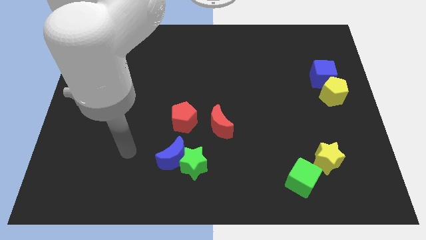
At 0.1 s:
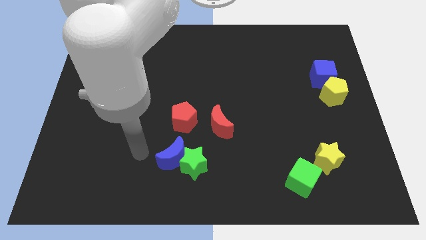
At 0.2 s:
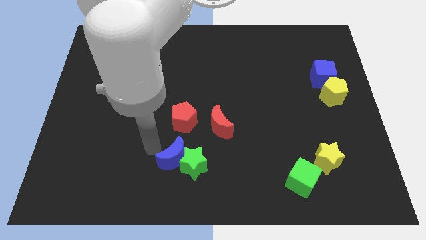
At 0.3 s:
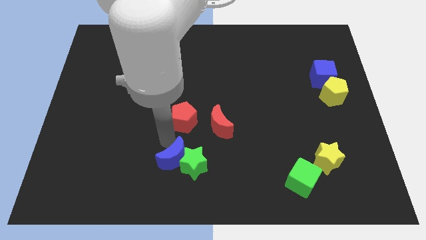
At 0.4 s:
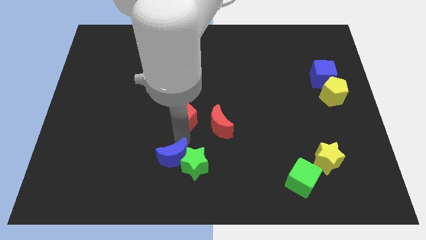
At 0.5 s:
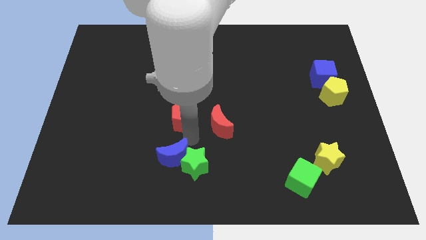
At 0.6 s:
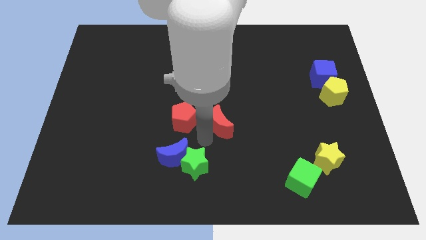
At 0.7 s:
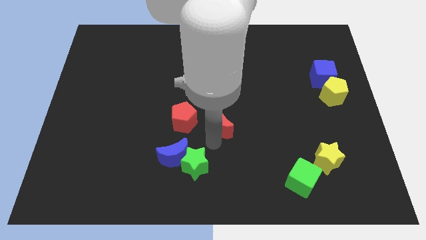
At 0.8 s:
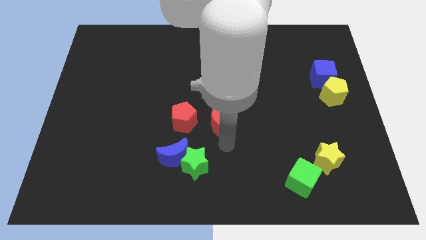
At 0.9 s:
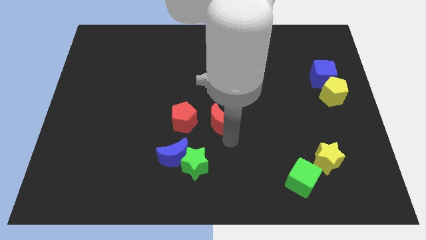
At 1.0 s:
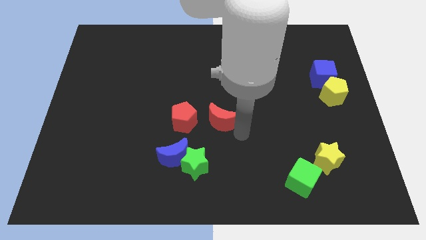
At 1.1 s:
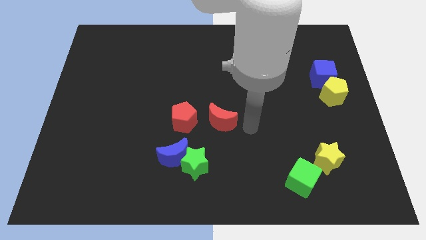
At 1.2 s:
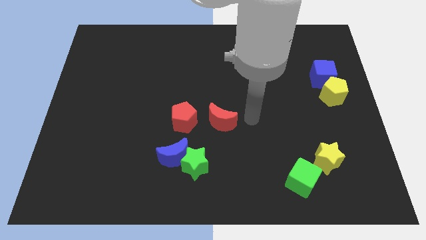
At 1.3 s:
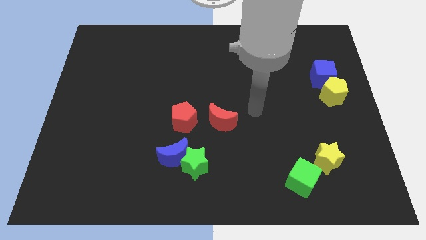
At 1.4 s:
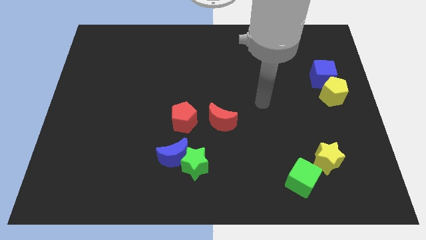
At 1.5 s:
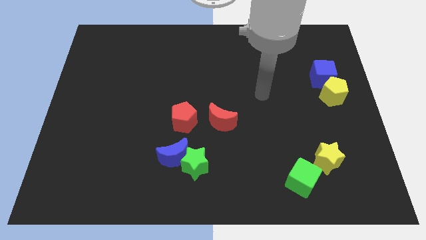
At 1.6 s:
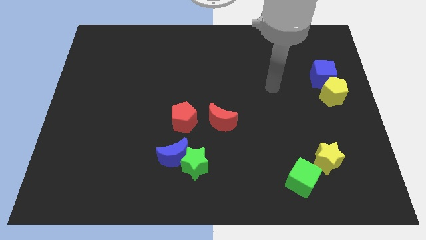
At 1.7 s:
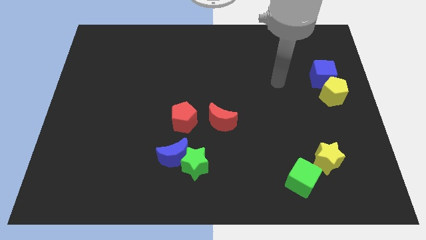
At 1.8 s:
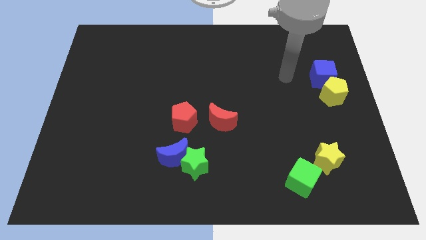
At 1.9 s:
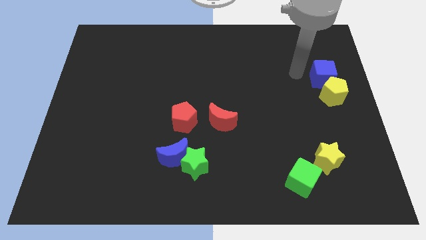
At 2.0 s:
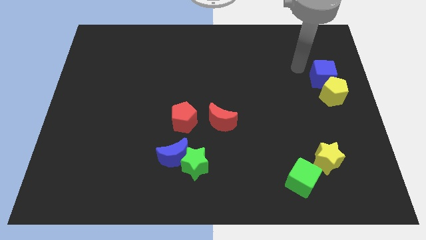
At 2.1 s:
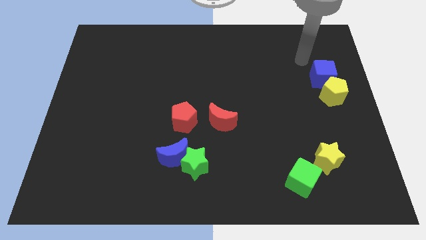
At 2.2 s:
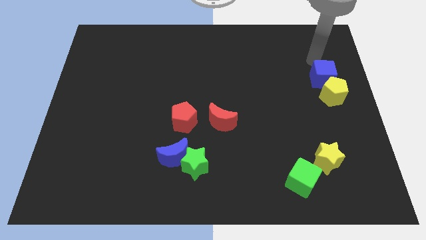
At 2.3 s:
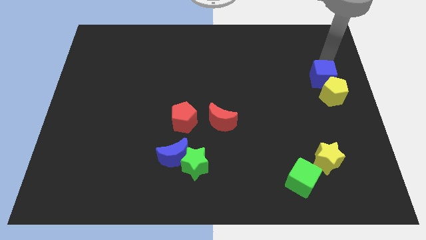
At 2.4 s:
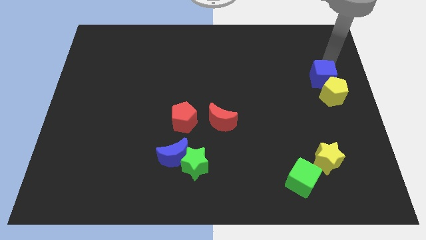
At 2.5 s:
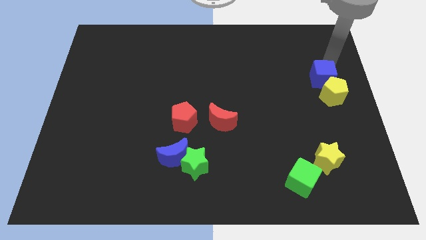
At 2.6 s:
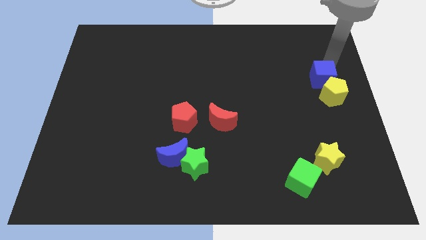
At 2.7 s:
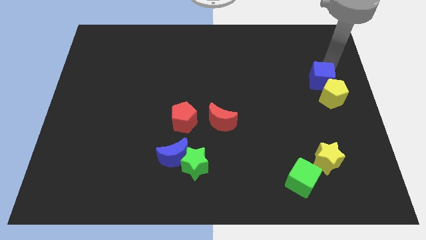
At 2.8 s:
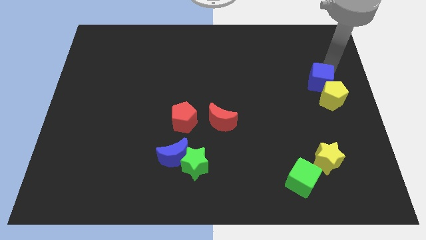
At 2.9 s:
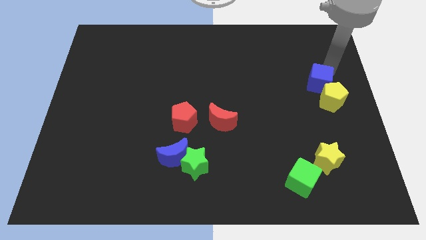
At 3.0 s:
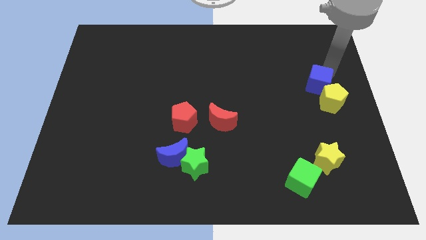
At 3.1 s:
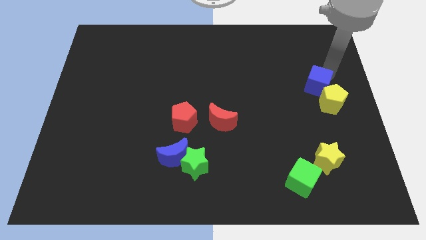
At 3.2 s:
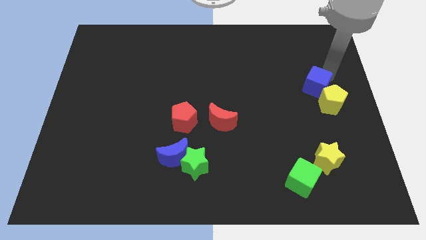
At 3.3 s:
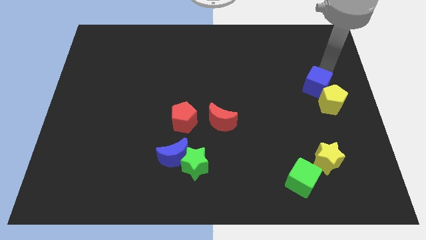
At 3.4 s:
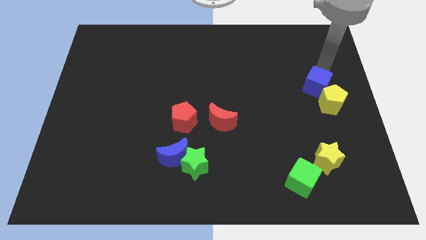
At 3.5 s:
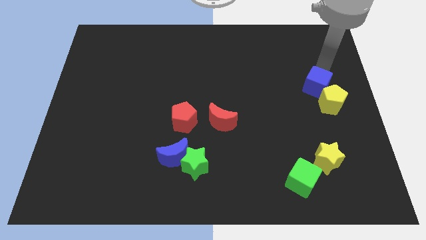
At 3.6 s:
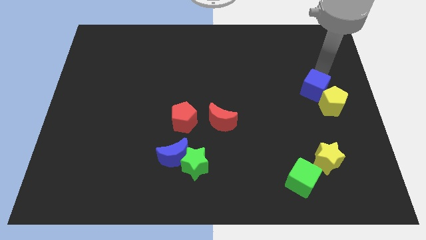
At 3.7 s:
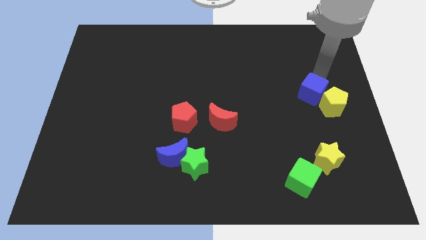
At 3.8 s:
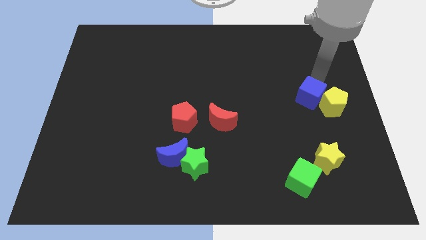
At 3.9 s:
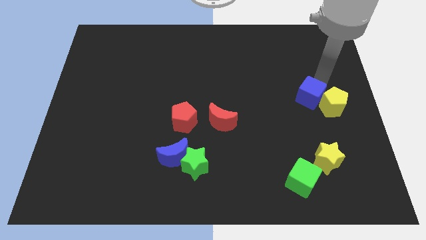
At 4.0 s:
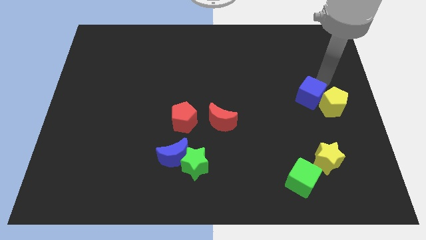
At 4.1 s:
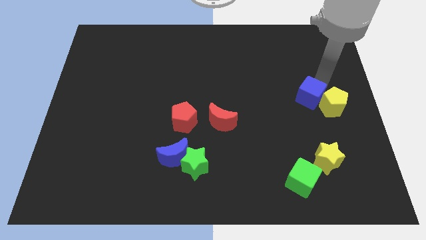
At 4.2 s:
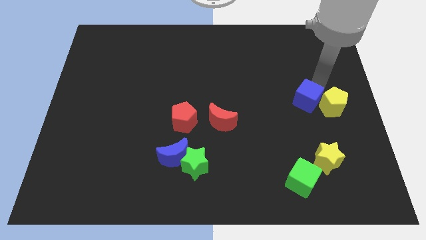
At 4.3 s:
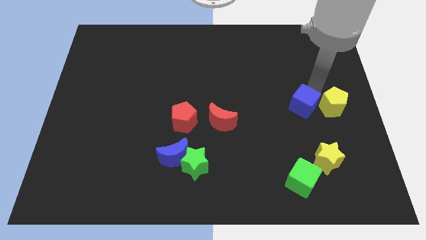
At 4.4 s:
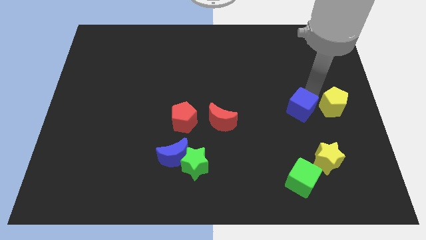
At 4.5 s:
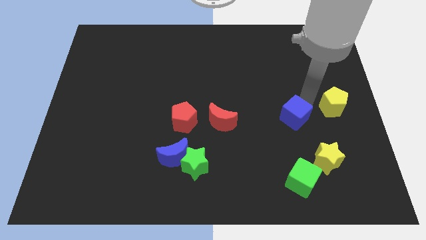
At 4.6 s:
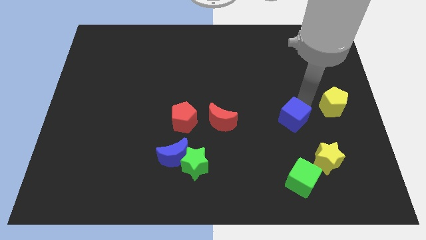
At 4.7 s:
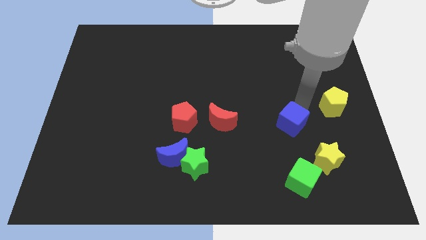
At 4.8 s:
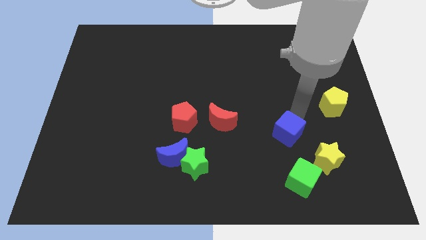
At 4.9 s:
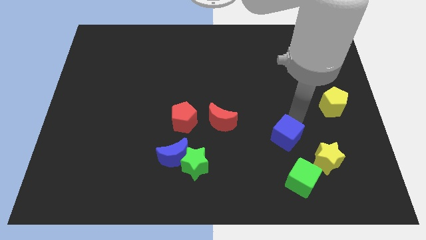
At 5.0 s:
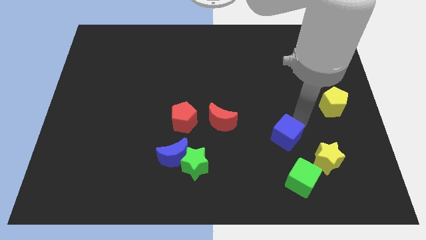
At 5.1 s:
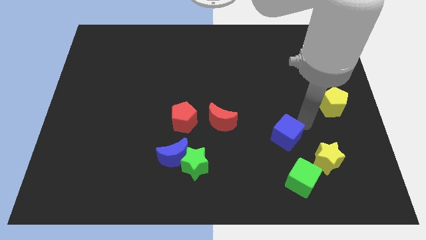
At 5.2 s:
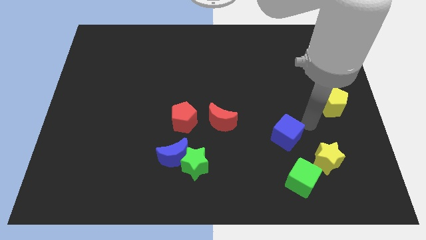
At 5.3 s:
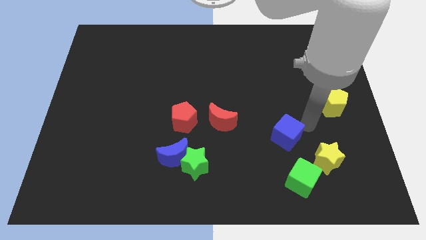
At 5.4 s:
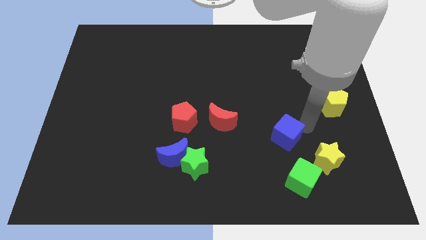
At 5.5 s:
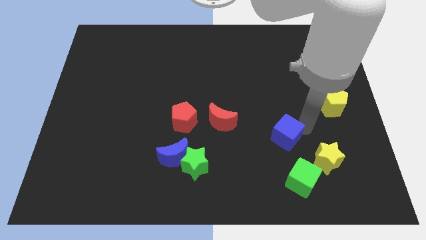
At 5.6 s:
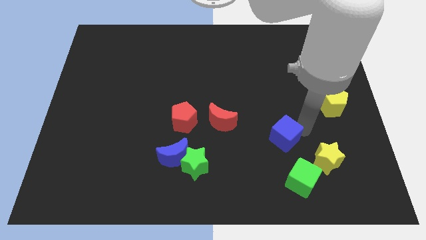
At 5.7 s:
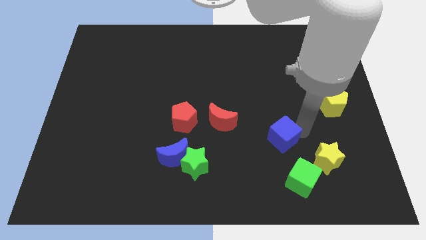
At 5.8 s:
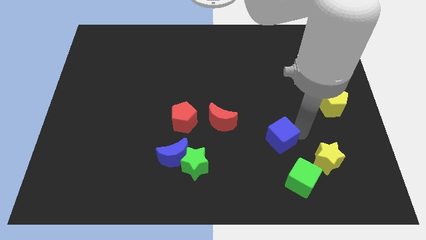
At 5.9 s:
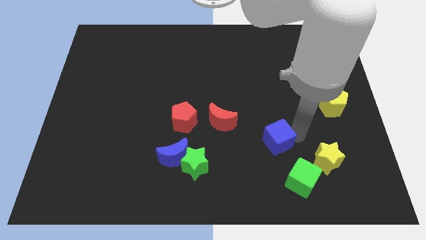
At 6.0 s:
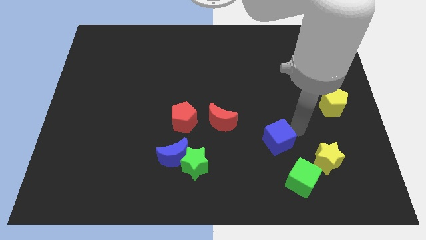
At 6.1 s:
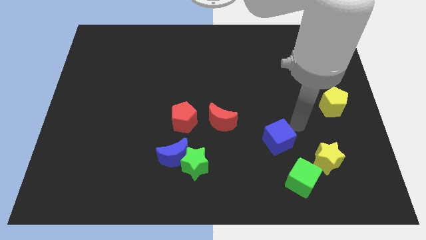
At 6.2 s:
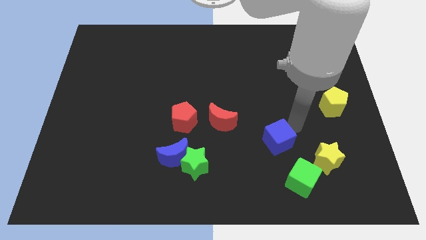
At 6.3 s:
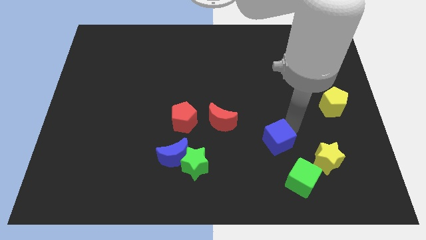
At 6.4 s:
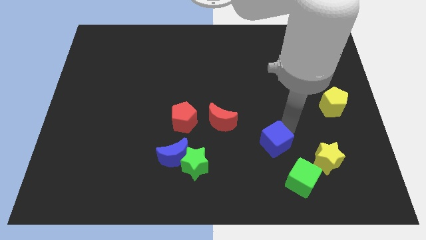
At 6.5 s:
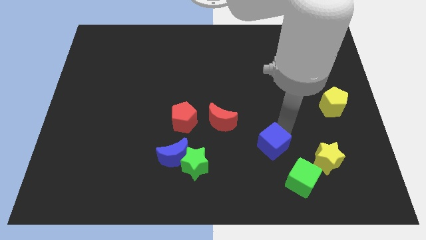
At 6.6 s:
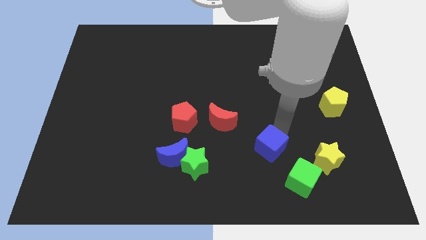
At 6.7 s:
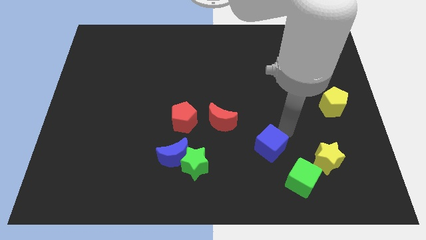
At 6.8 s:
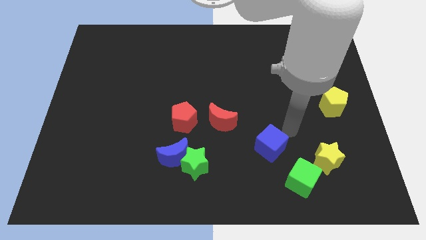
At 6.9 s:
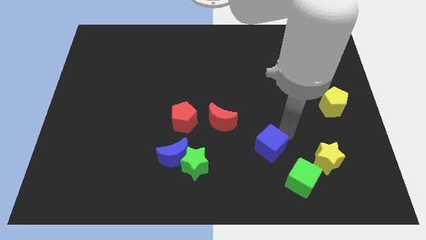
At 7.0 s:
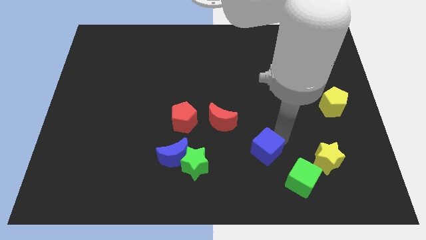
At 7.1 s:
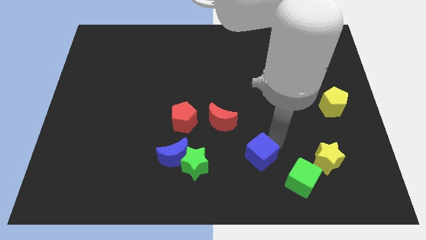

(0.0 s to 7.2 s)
put the blue cube just right of the green star
